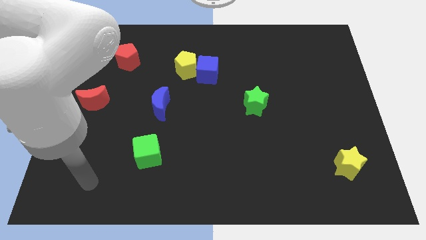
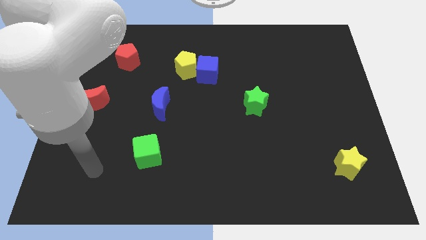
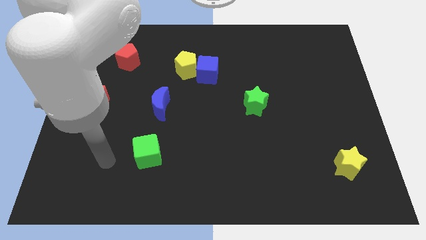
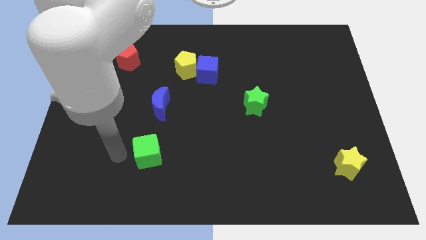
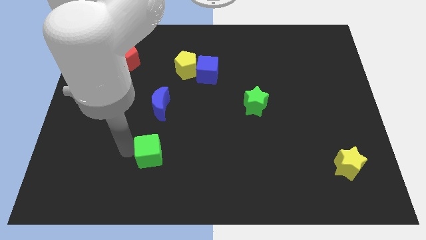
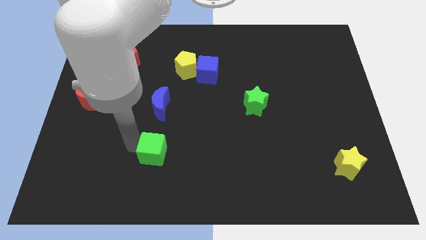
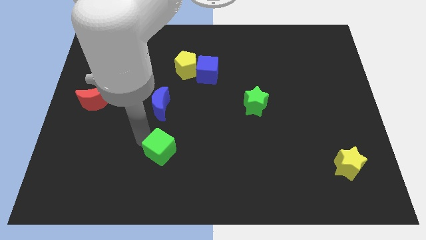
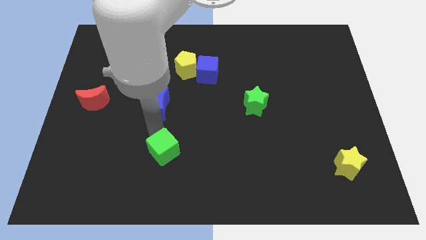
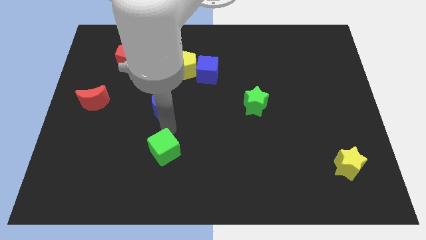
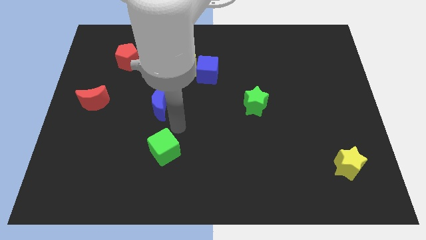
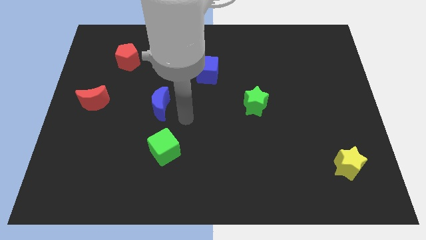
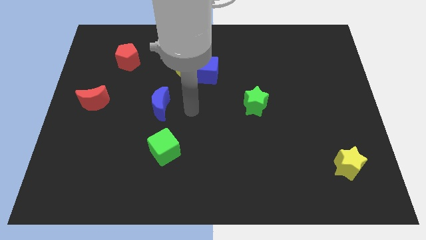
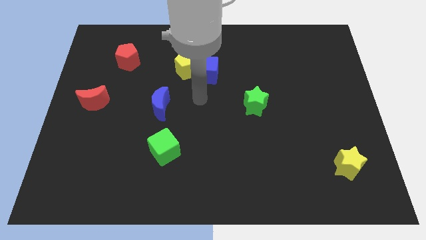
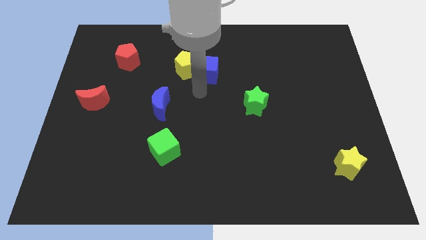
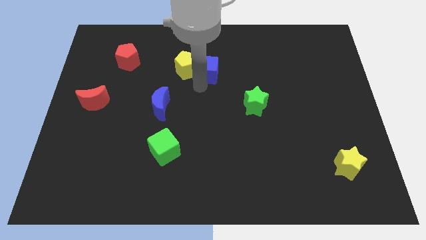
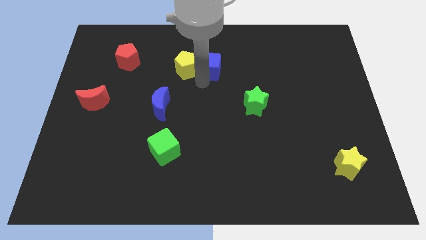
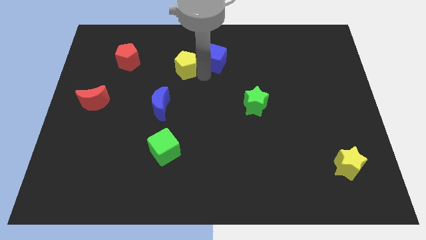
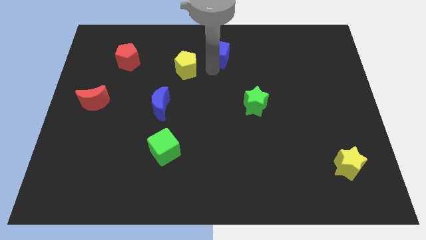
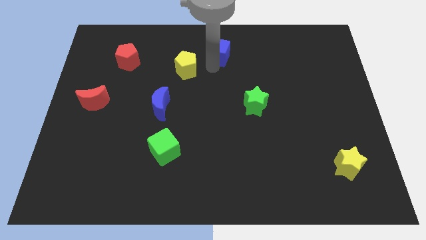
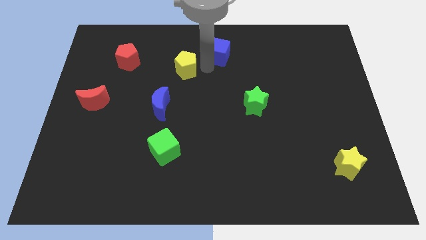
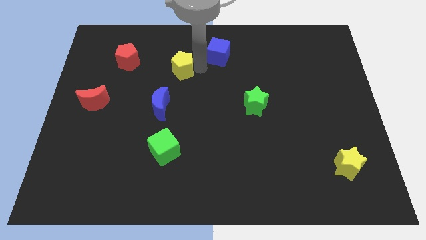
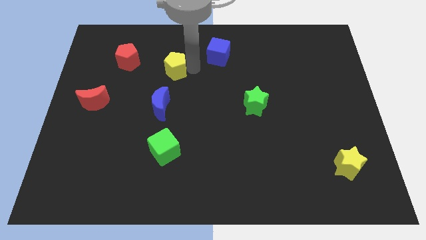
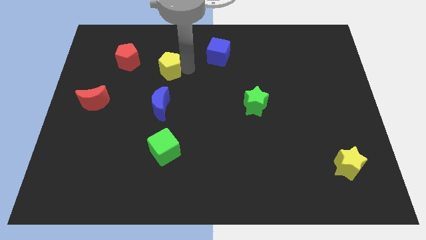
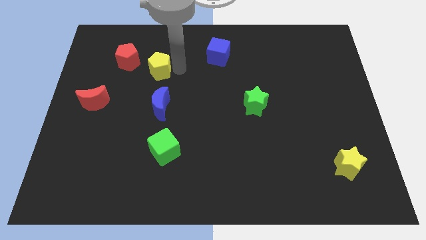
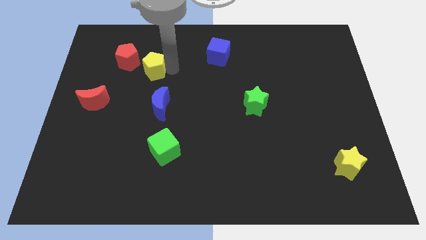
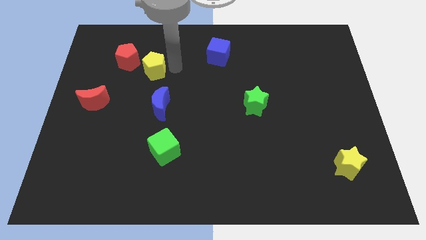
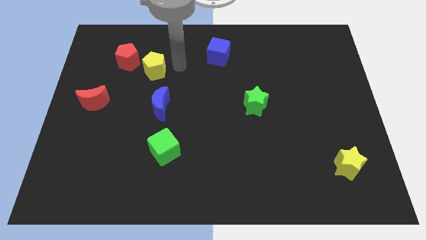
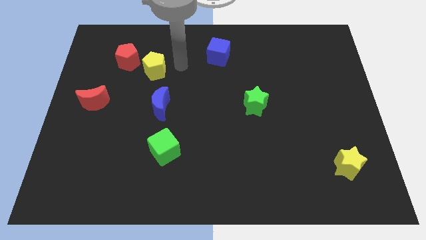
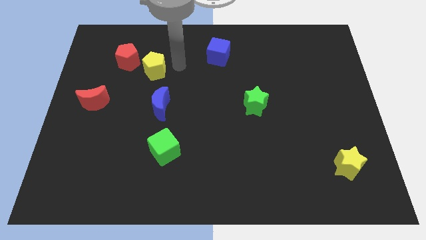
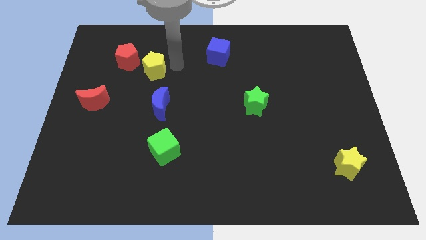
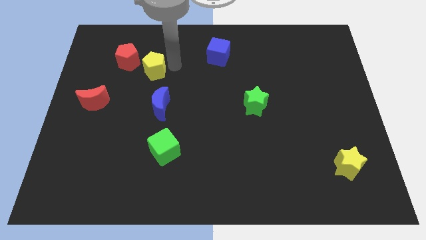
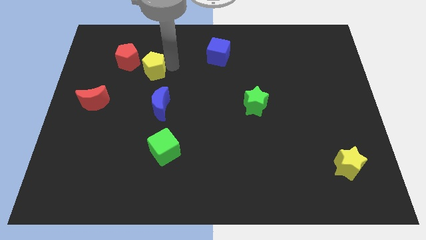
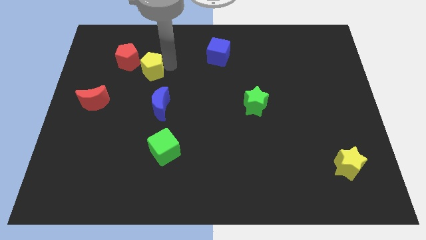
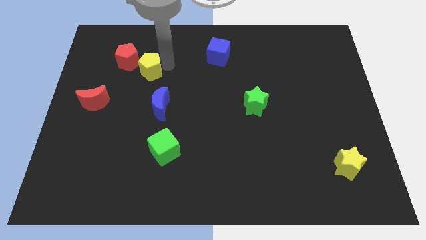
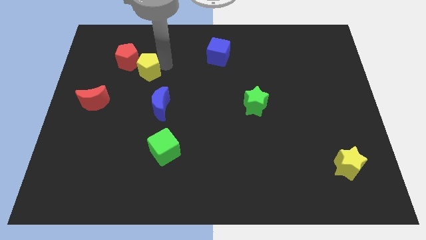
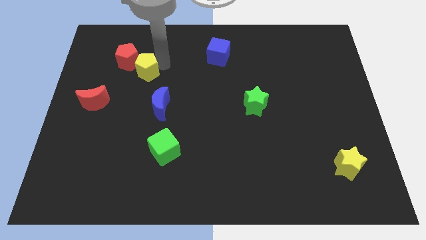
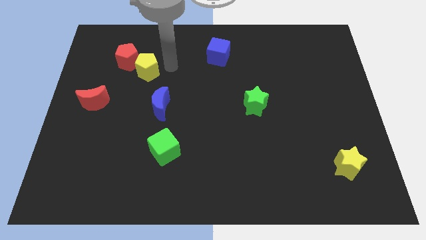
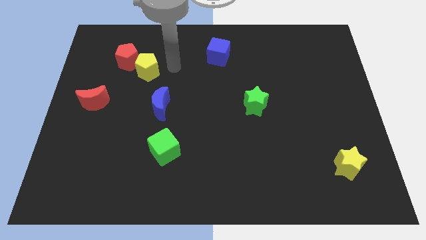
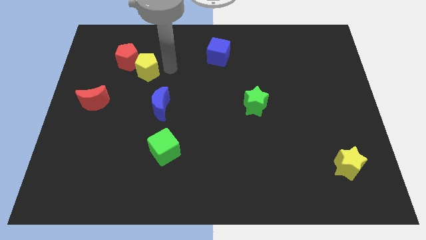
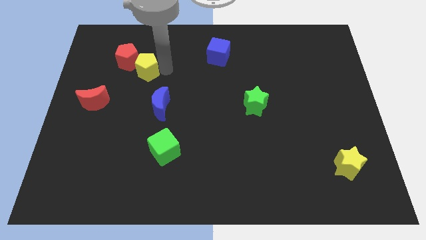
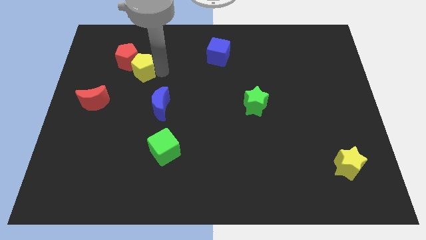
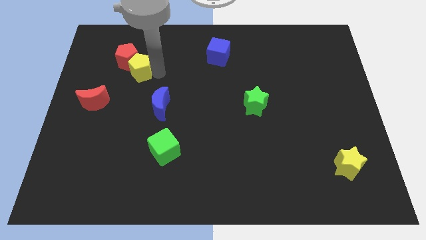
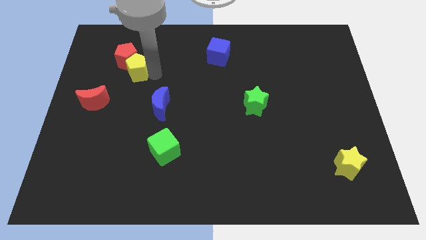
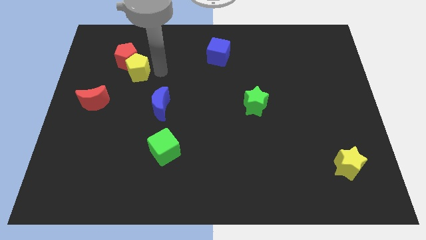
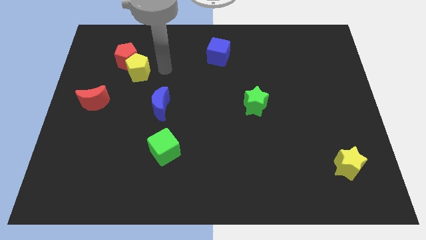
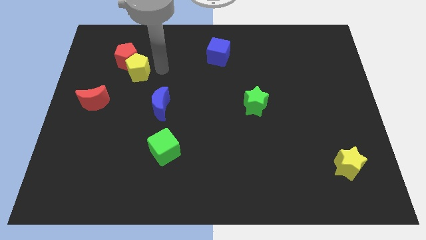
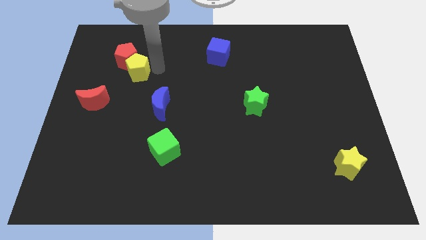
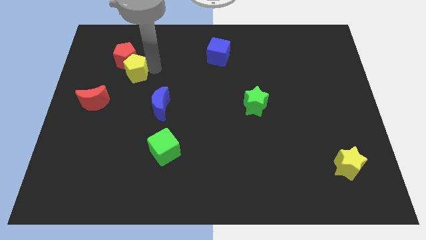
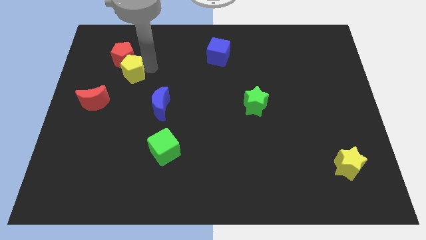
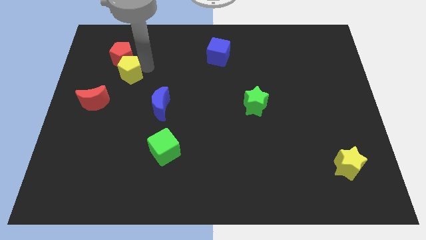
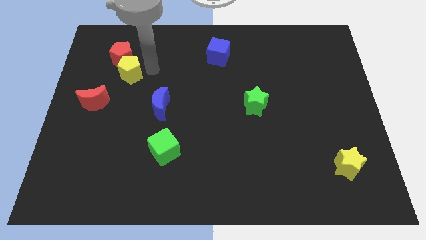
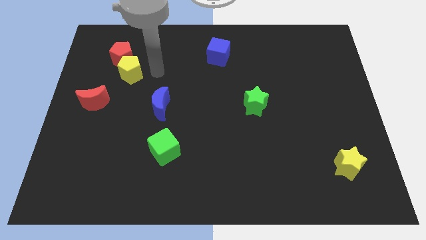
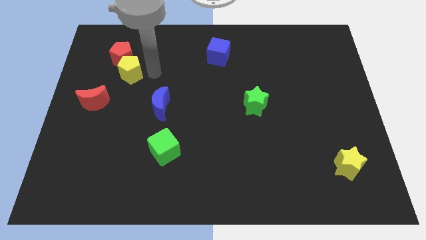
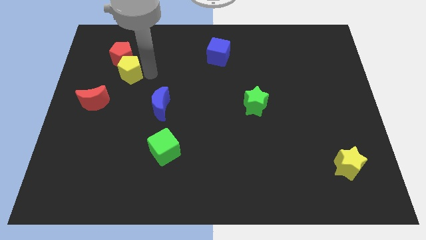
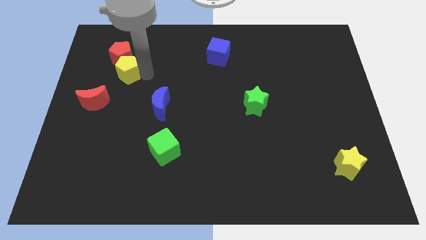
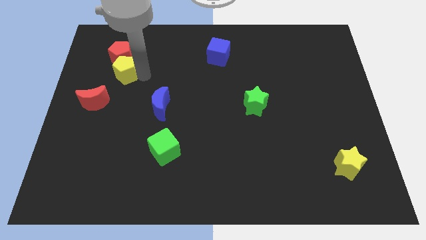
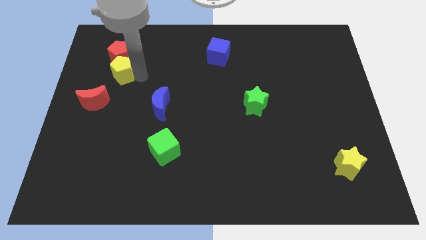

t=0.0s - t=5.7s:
slide the yellow pentagon to the bottom left of the red pentagon
